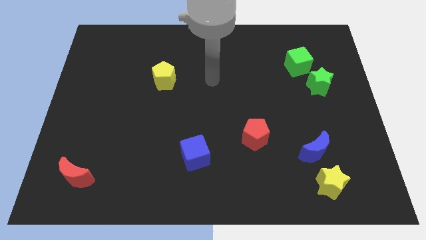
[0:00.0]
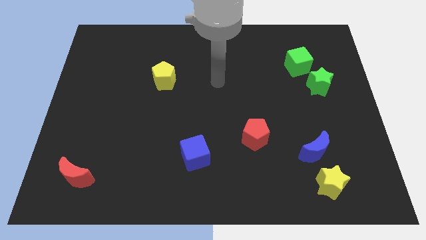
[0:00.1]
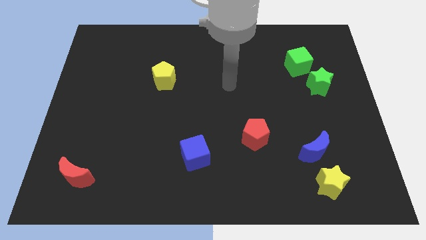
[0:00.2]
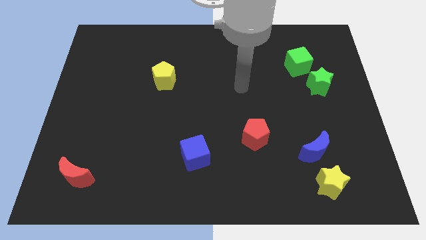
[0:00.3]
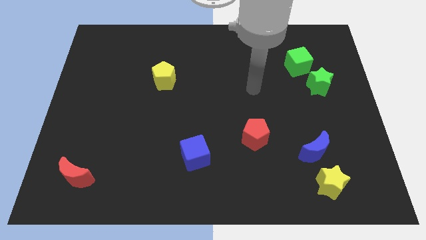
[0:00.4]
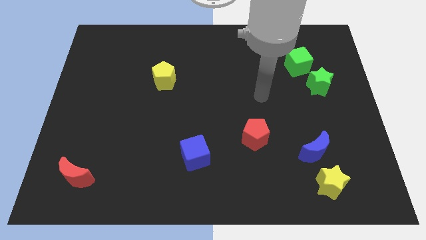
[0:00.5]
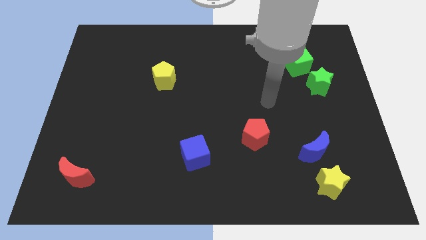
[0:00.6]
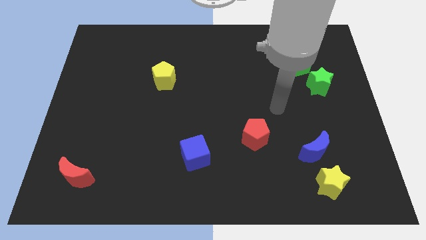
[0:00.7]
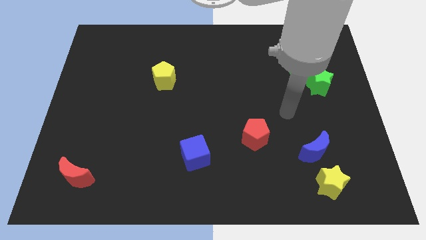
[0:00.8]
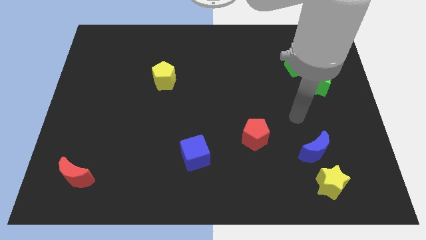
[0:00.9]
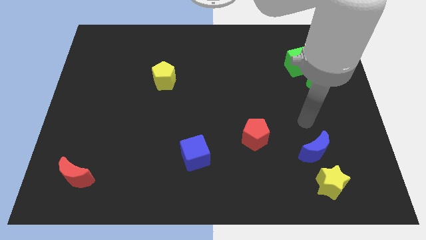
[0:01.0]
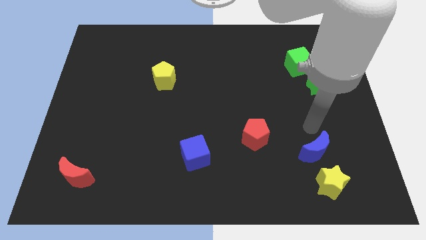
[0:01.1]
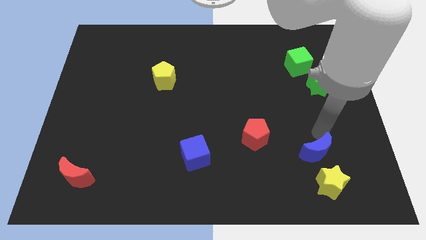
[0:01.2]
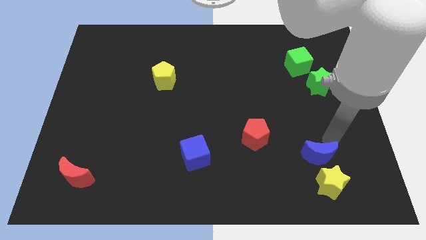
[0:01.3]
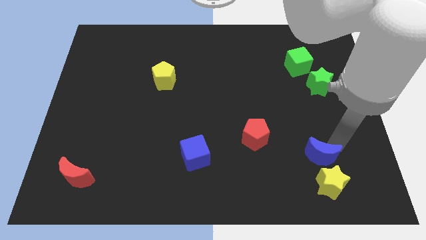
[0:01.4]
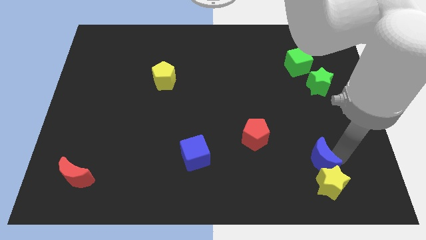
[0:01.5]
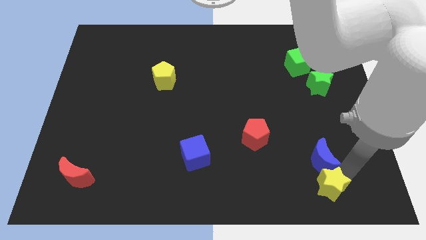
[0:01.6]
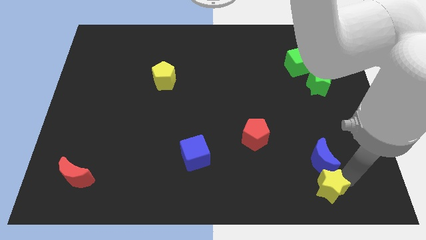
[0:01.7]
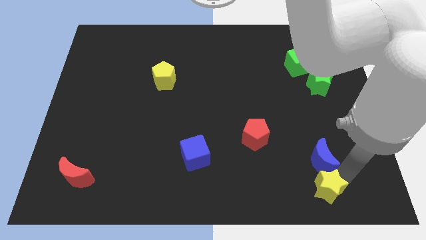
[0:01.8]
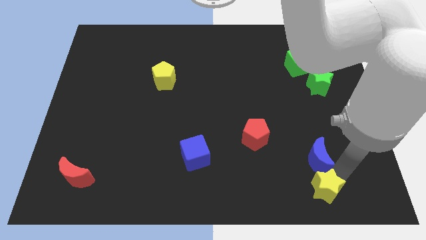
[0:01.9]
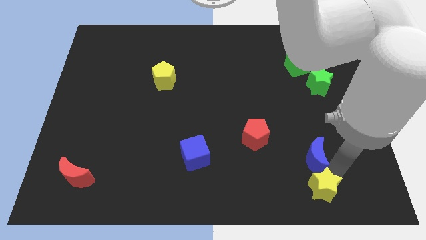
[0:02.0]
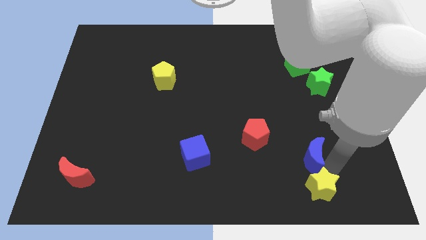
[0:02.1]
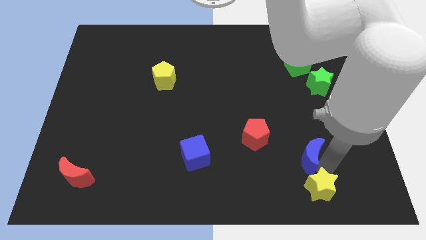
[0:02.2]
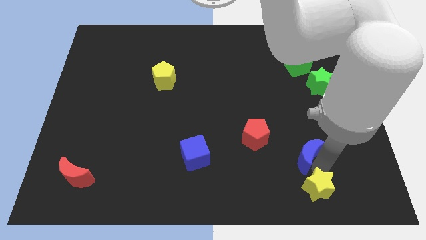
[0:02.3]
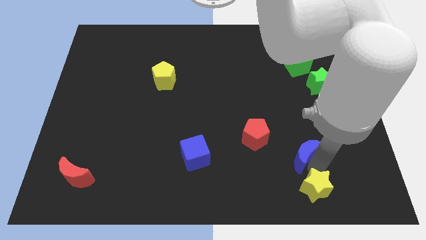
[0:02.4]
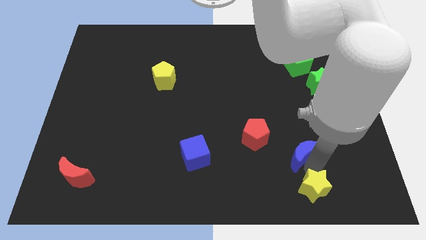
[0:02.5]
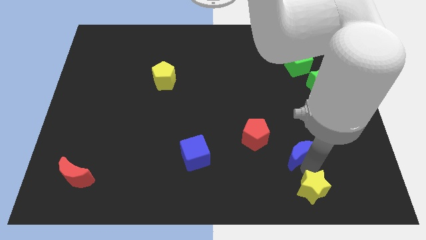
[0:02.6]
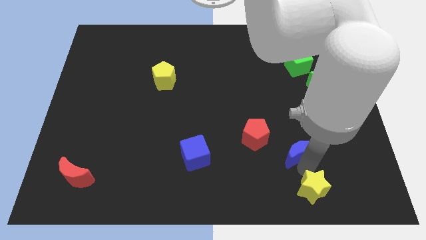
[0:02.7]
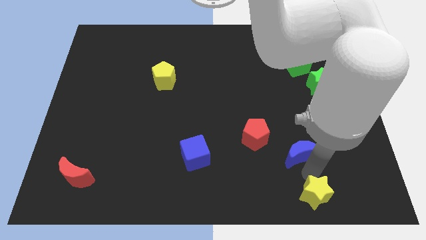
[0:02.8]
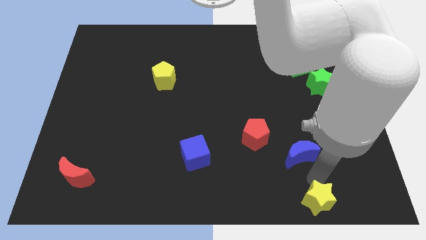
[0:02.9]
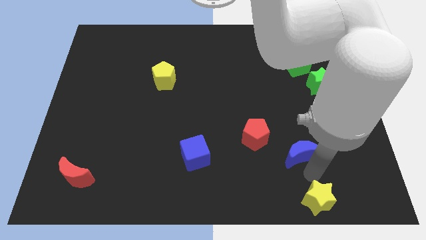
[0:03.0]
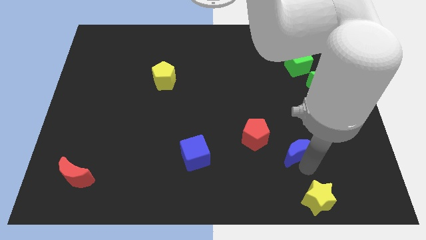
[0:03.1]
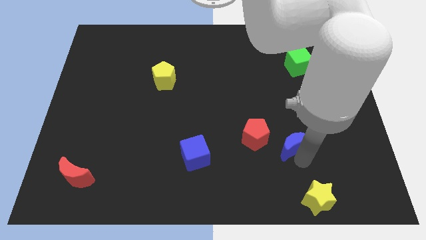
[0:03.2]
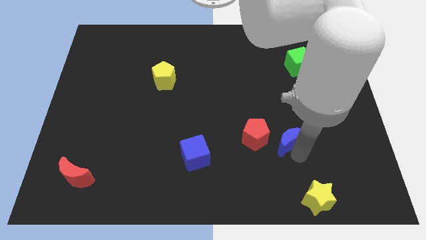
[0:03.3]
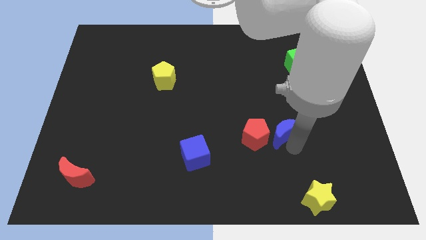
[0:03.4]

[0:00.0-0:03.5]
slightly push the blue moon upwards and to the left diagonally

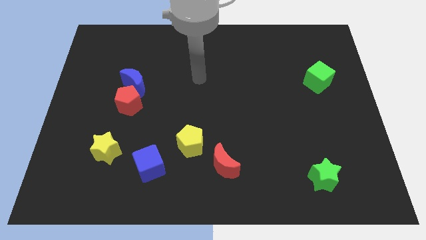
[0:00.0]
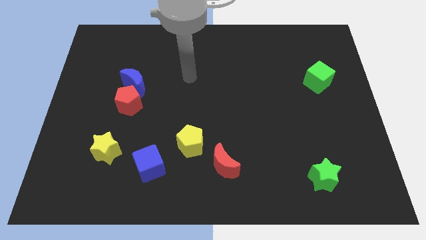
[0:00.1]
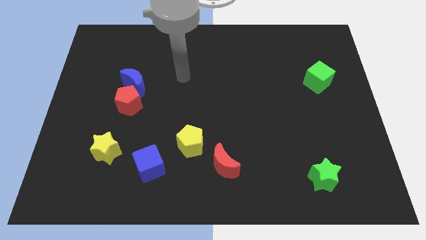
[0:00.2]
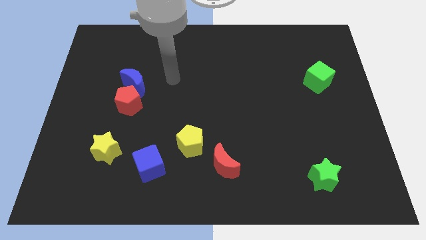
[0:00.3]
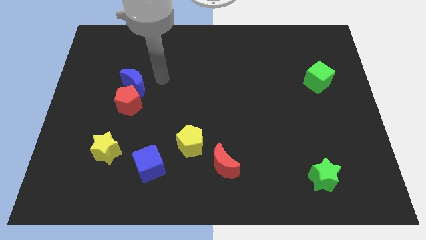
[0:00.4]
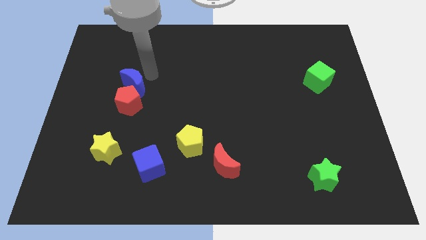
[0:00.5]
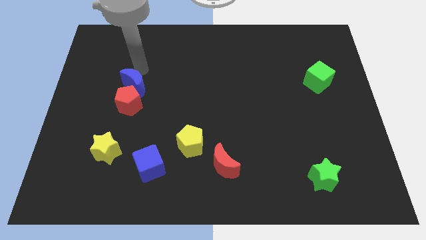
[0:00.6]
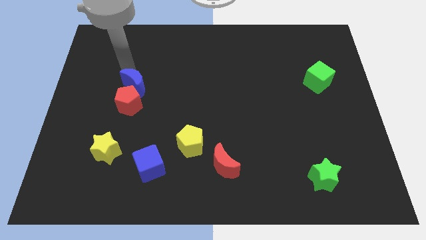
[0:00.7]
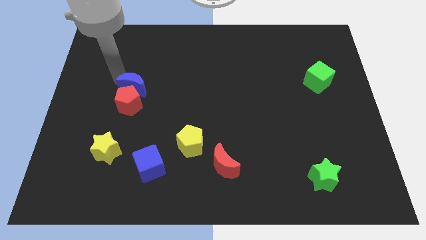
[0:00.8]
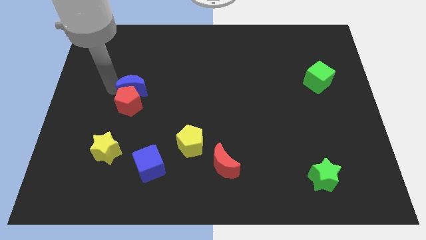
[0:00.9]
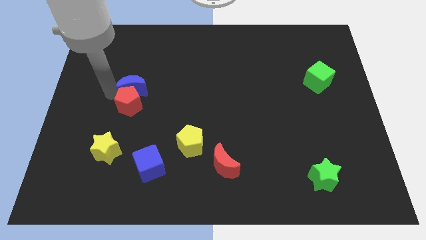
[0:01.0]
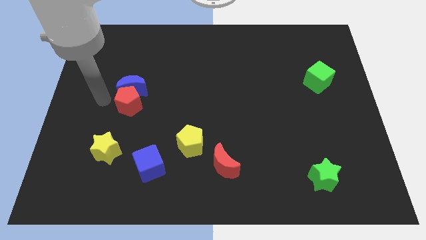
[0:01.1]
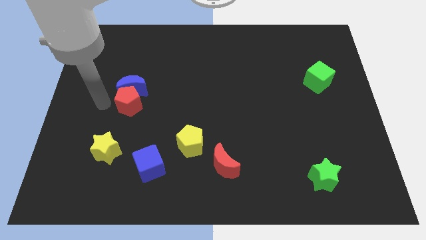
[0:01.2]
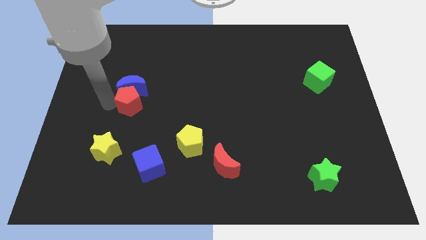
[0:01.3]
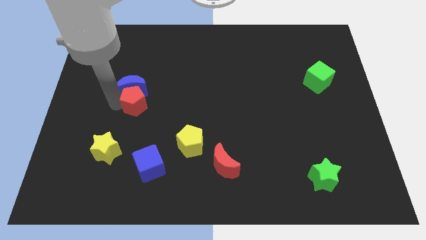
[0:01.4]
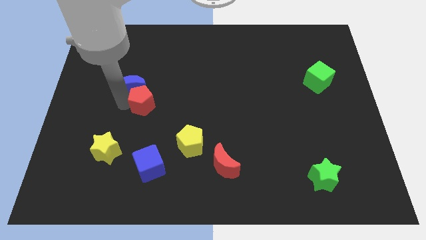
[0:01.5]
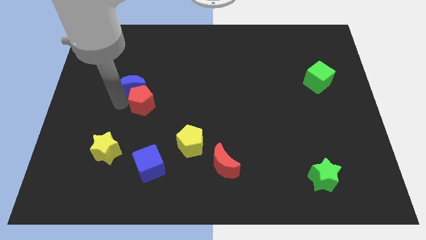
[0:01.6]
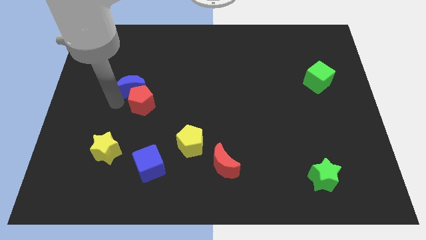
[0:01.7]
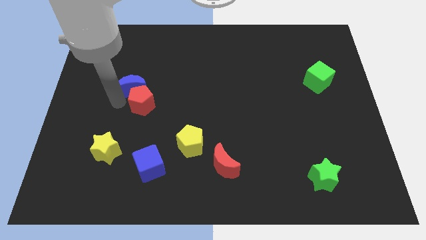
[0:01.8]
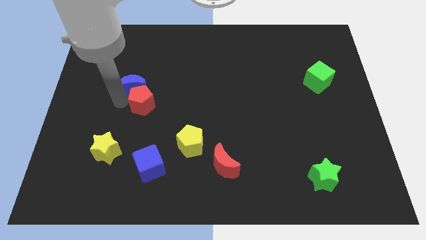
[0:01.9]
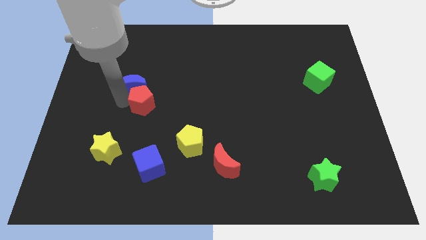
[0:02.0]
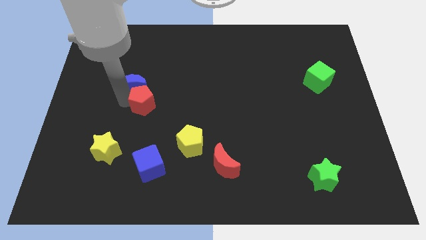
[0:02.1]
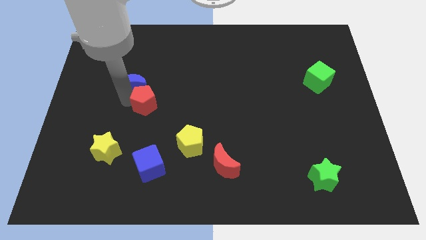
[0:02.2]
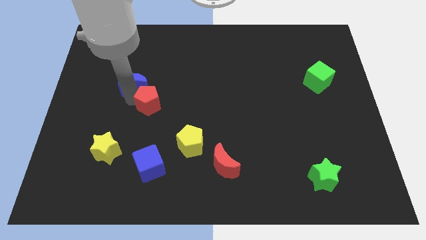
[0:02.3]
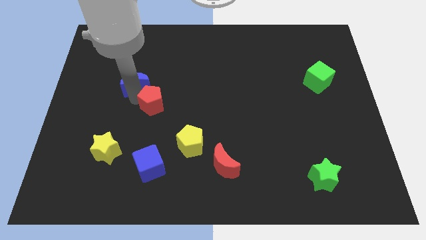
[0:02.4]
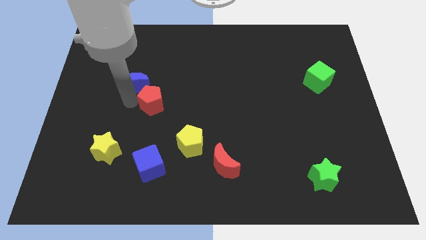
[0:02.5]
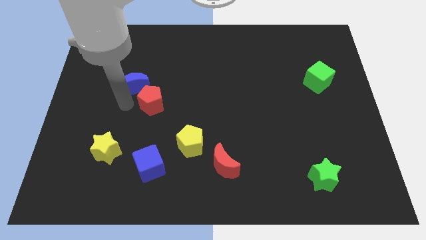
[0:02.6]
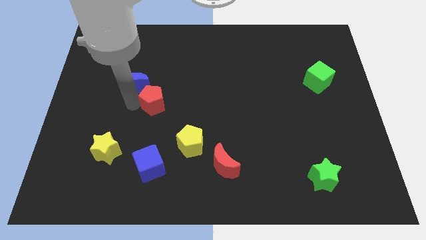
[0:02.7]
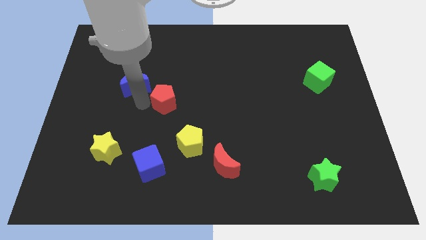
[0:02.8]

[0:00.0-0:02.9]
push the red pentagon right somewhat

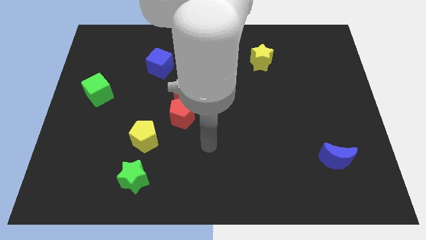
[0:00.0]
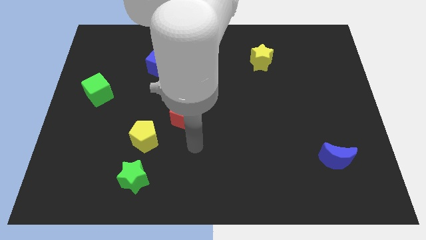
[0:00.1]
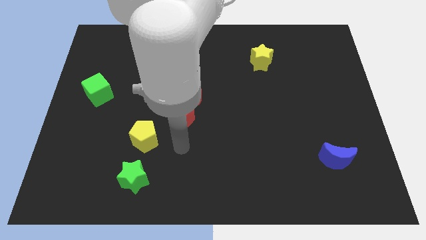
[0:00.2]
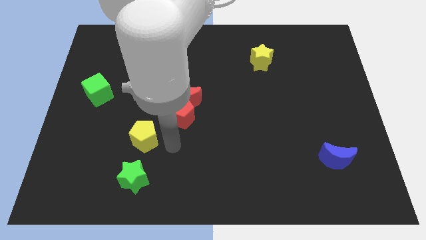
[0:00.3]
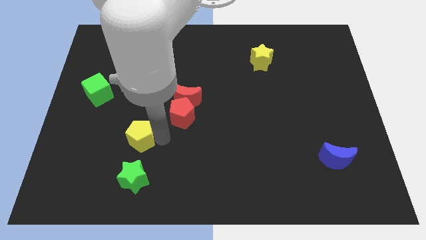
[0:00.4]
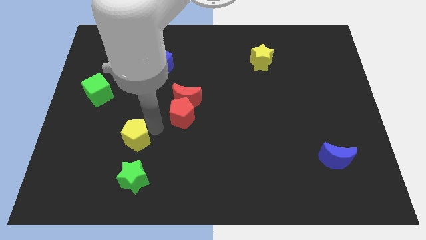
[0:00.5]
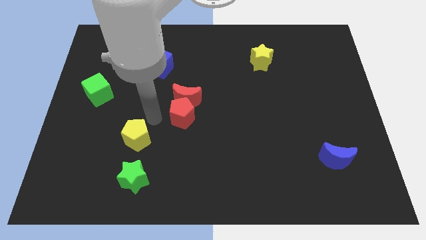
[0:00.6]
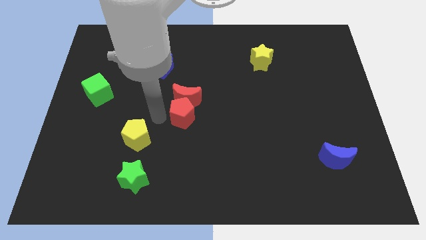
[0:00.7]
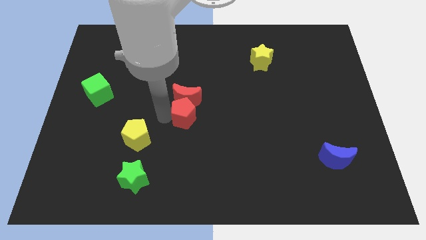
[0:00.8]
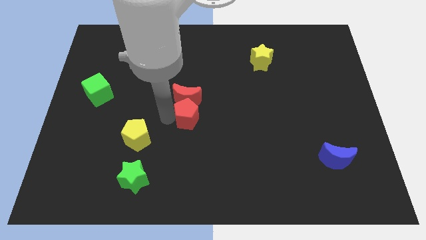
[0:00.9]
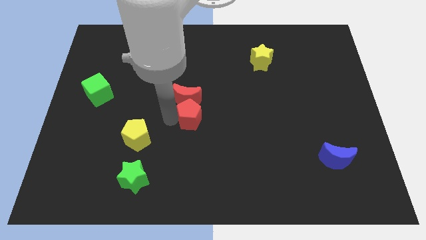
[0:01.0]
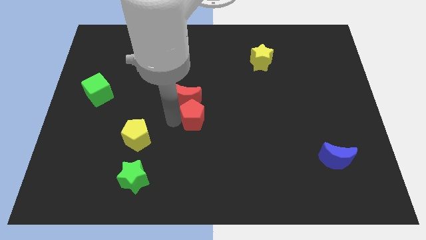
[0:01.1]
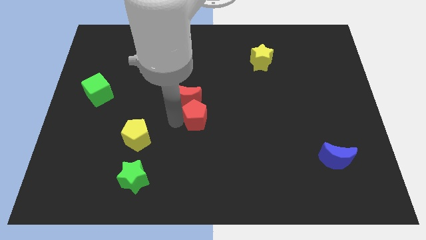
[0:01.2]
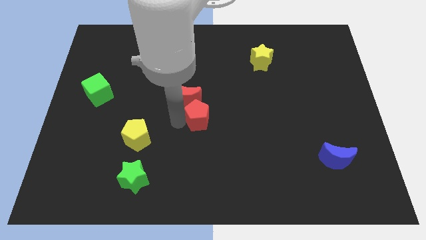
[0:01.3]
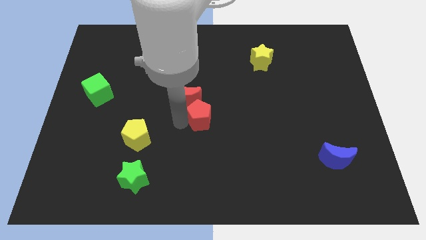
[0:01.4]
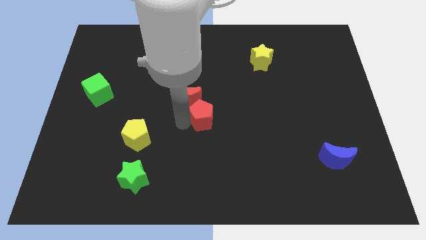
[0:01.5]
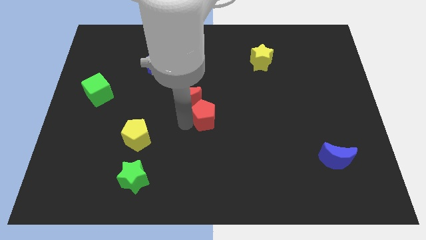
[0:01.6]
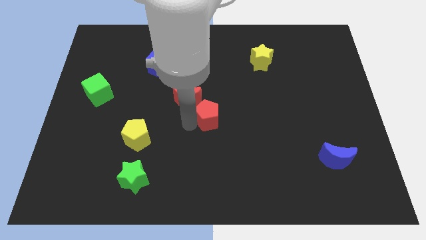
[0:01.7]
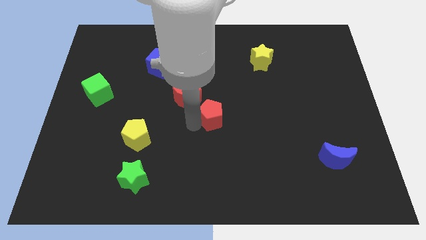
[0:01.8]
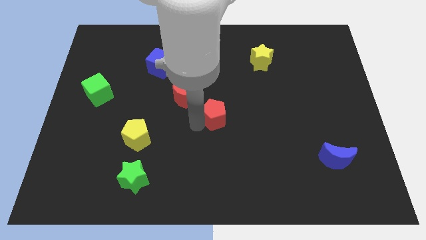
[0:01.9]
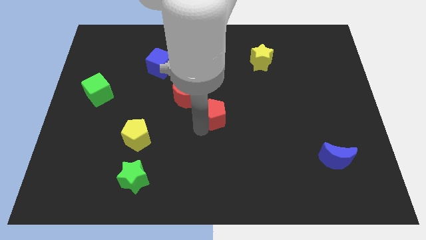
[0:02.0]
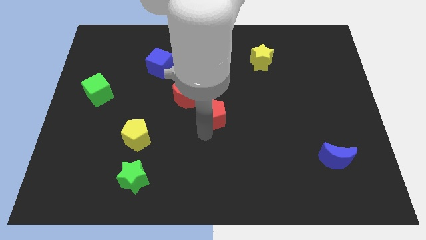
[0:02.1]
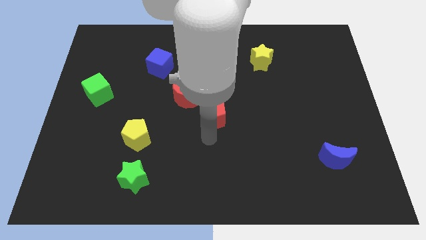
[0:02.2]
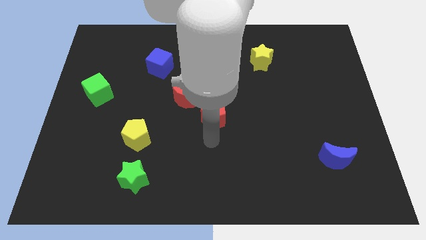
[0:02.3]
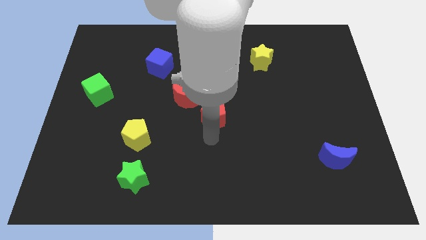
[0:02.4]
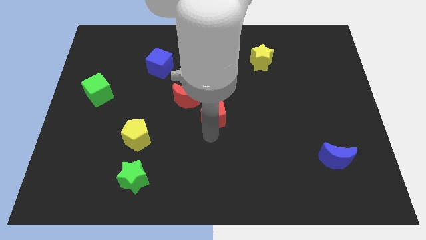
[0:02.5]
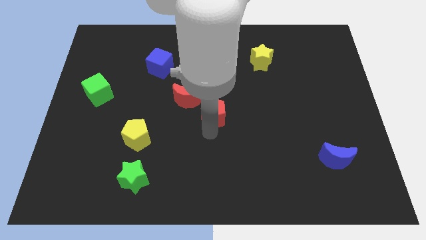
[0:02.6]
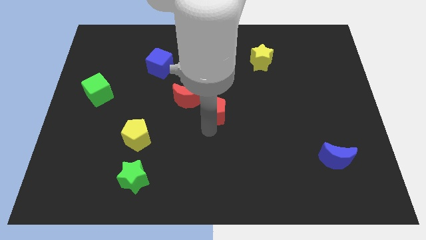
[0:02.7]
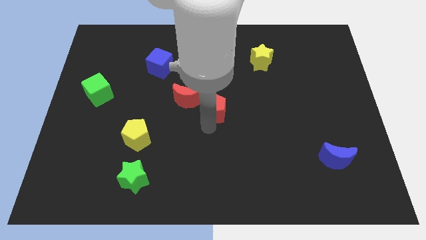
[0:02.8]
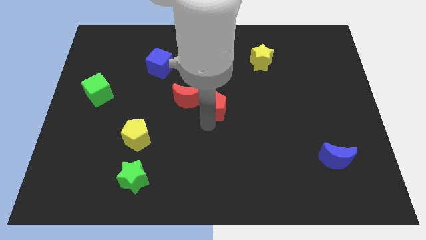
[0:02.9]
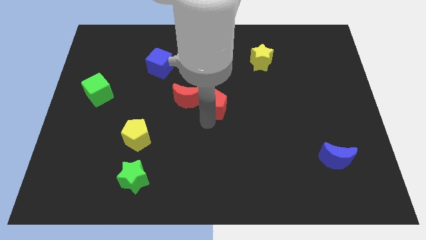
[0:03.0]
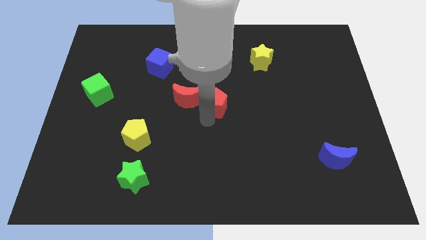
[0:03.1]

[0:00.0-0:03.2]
move the red pentagon upwards and then to the right somewhat
